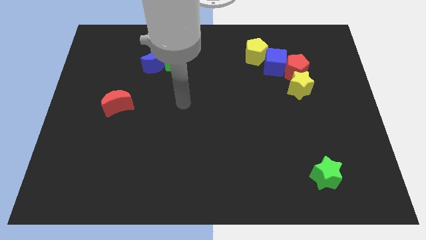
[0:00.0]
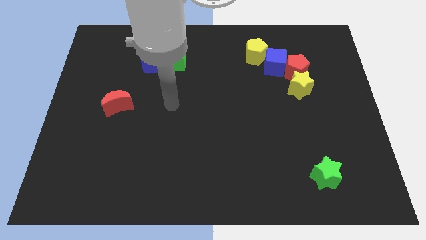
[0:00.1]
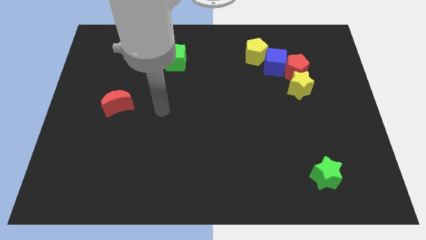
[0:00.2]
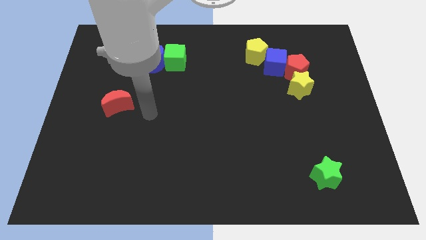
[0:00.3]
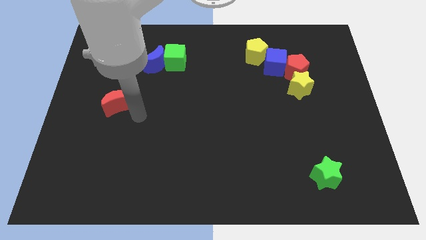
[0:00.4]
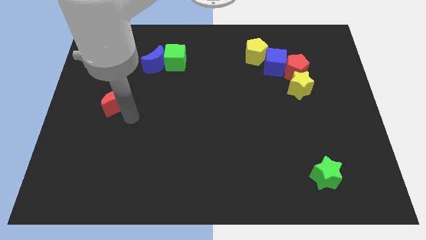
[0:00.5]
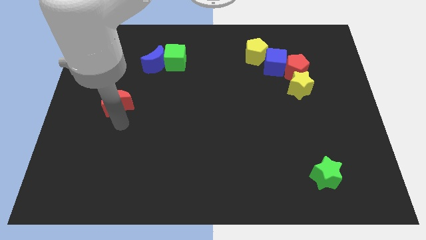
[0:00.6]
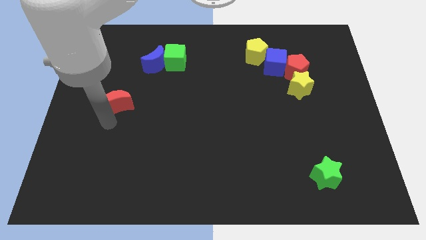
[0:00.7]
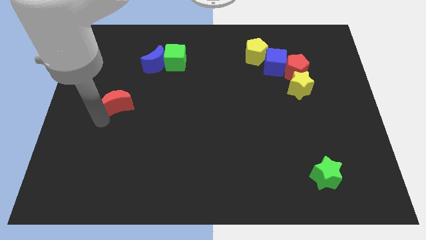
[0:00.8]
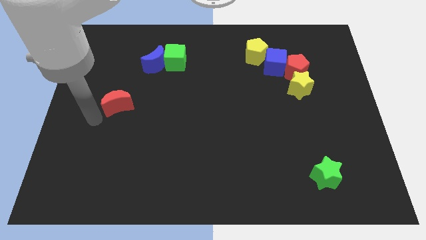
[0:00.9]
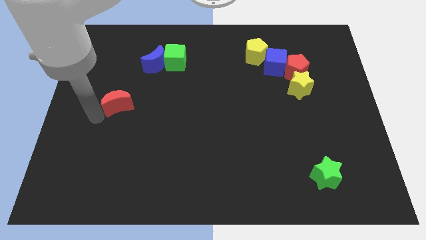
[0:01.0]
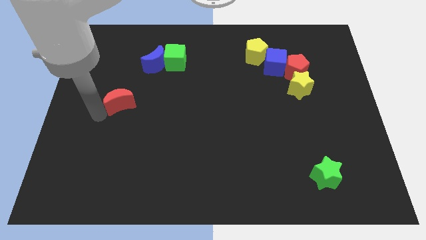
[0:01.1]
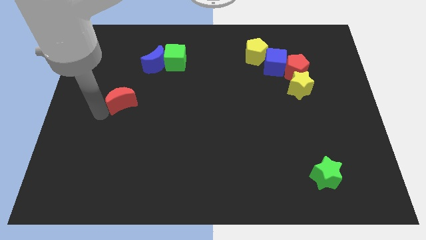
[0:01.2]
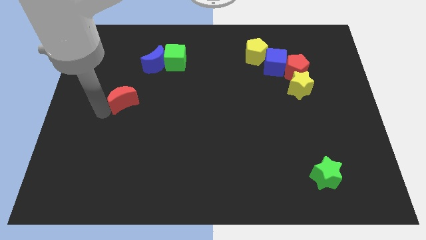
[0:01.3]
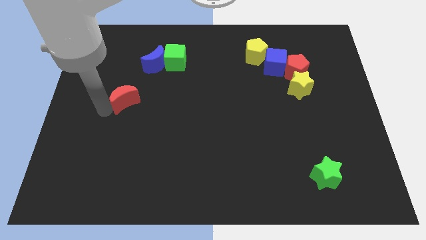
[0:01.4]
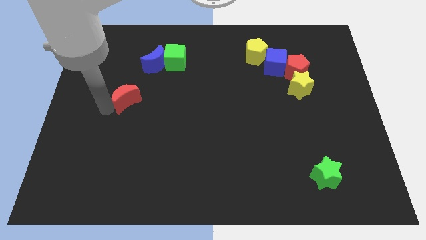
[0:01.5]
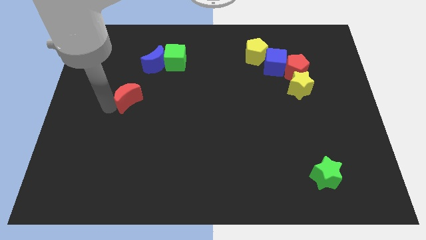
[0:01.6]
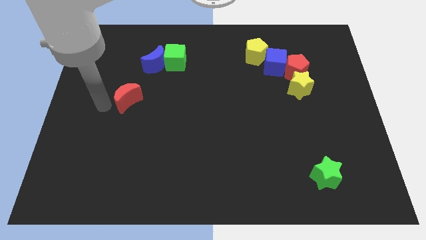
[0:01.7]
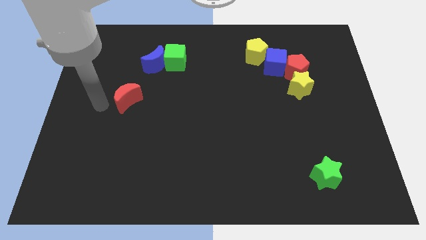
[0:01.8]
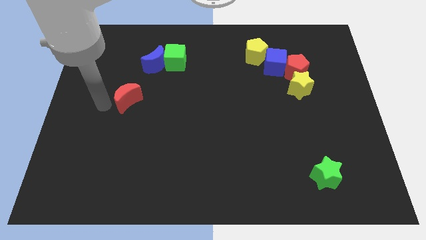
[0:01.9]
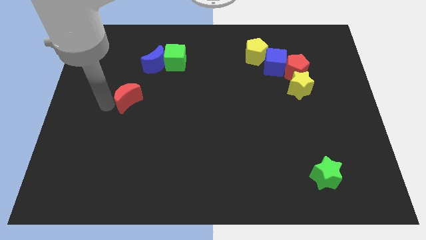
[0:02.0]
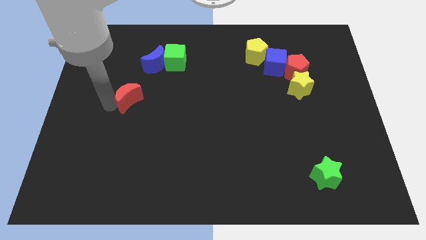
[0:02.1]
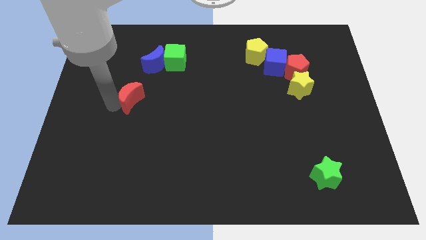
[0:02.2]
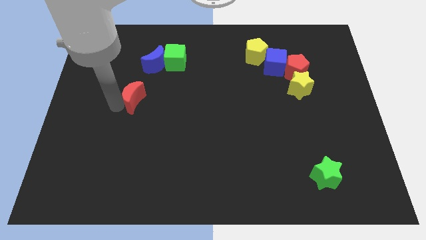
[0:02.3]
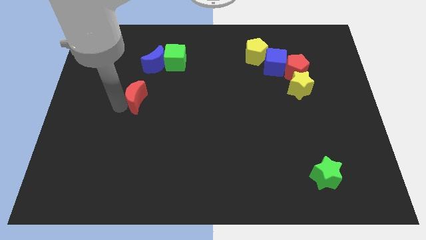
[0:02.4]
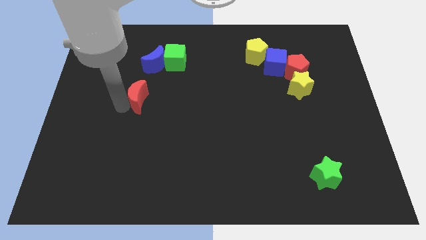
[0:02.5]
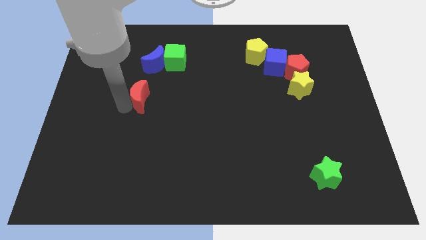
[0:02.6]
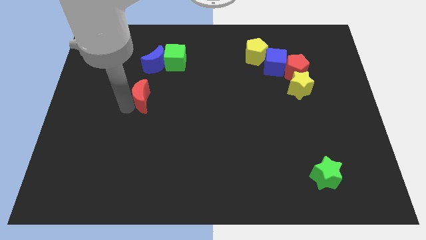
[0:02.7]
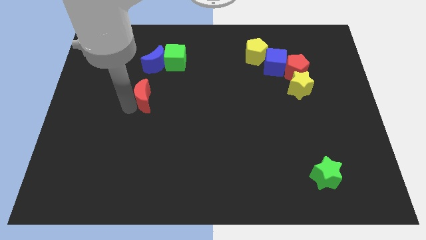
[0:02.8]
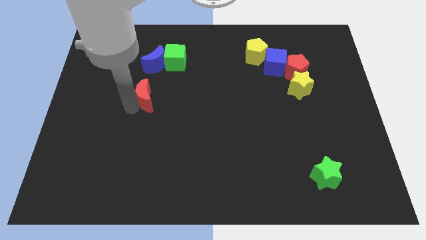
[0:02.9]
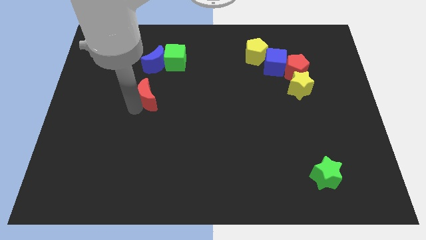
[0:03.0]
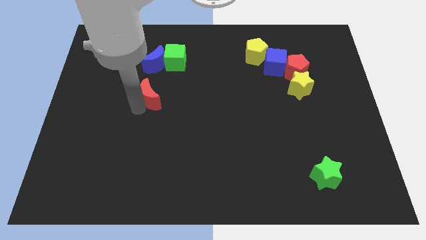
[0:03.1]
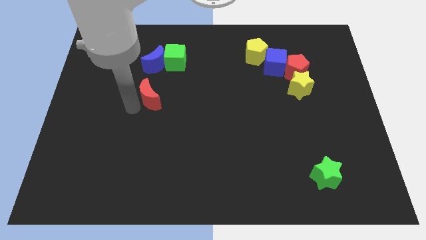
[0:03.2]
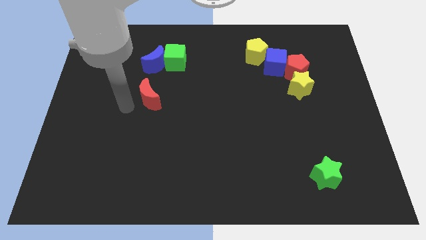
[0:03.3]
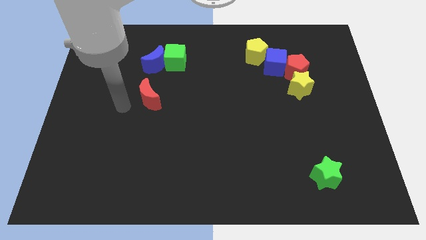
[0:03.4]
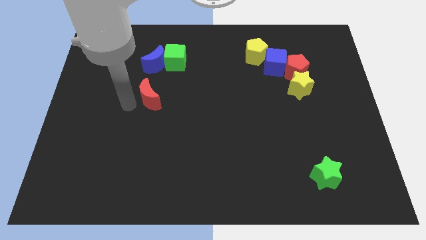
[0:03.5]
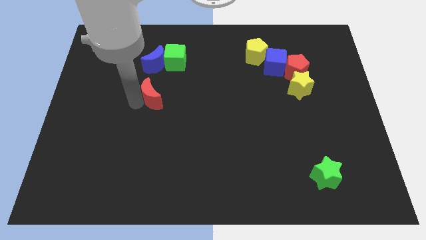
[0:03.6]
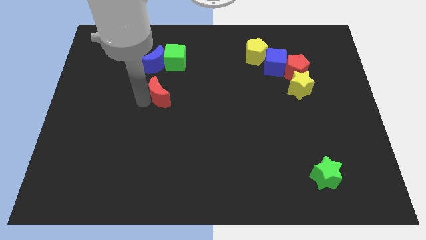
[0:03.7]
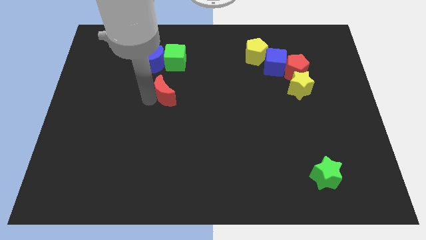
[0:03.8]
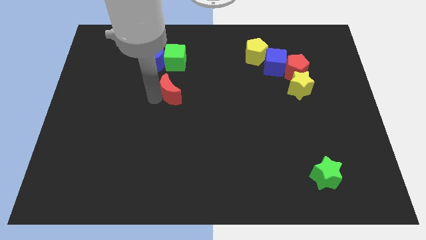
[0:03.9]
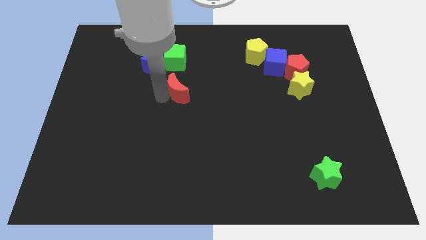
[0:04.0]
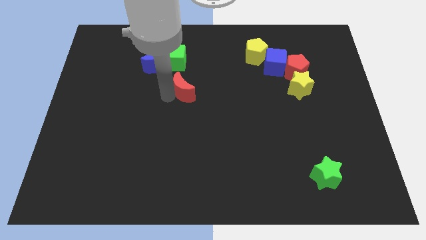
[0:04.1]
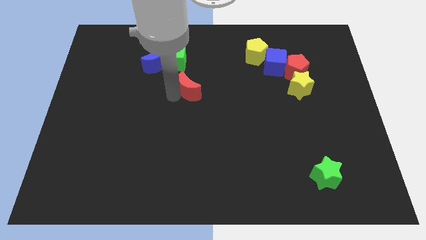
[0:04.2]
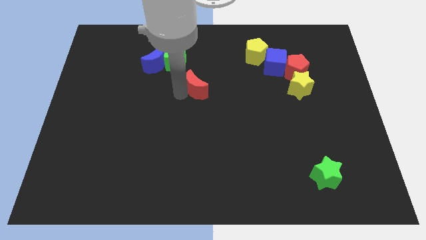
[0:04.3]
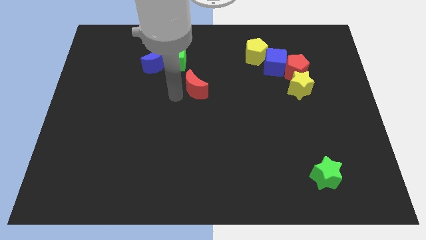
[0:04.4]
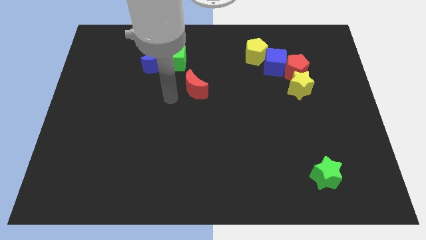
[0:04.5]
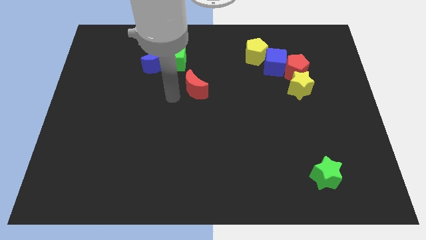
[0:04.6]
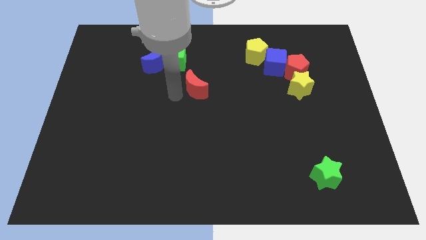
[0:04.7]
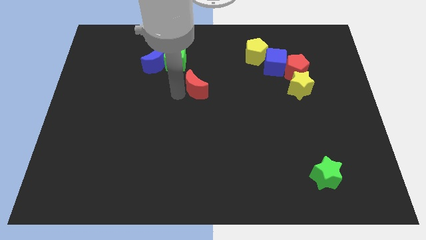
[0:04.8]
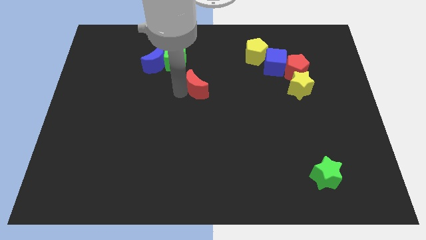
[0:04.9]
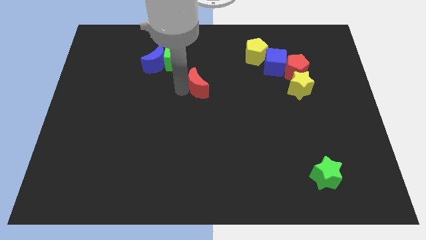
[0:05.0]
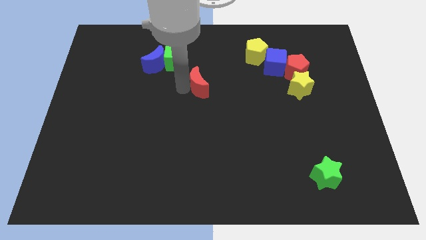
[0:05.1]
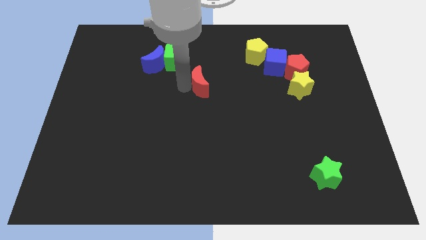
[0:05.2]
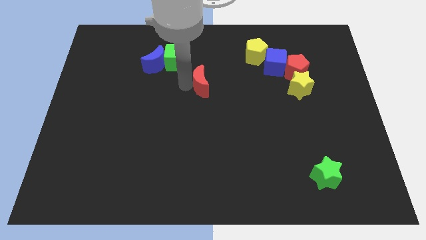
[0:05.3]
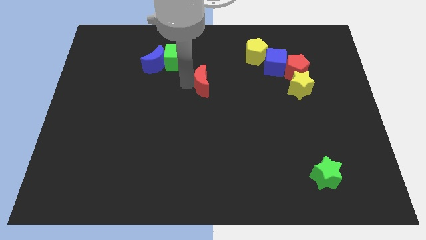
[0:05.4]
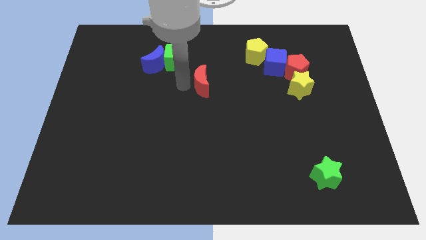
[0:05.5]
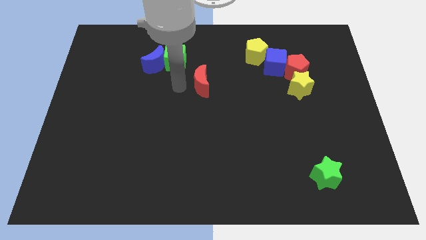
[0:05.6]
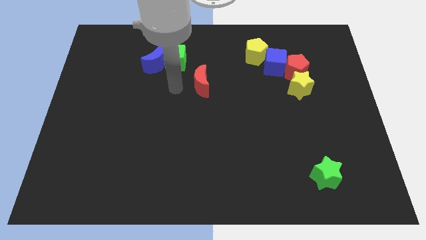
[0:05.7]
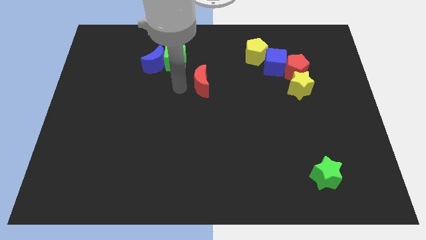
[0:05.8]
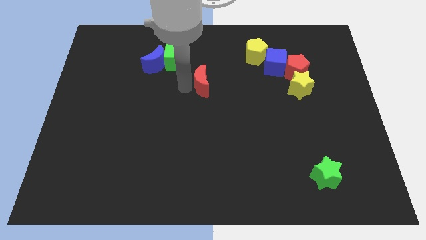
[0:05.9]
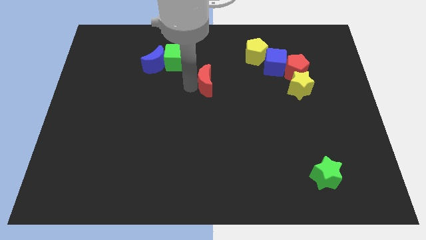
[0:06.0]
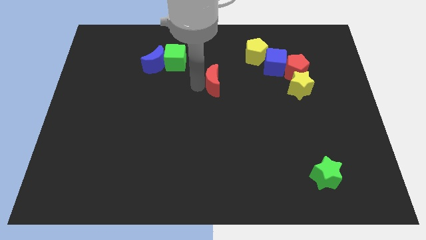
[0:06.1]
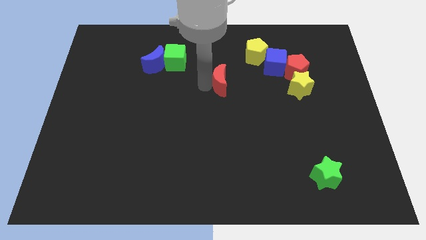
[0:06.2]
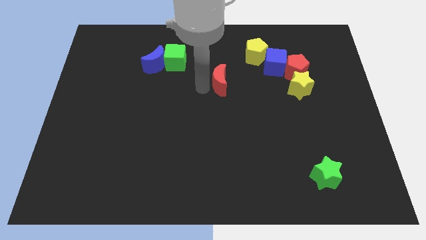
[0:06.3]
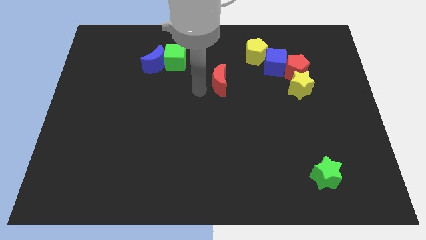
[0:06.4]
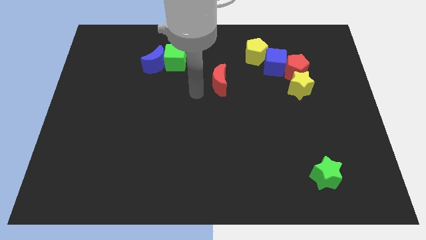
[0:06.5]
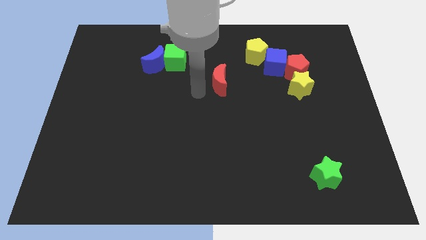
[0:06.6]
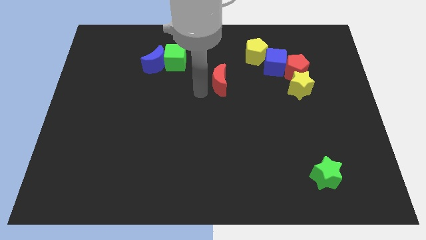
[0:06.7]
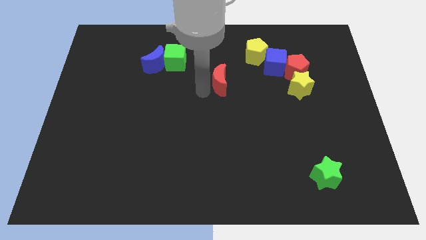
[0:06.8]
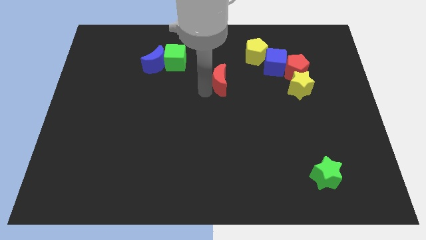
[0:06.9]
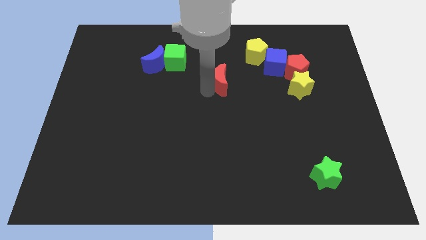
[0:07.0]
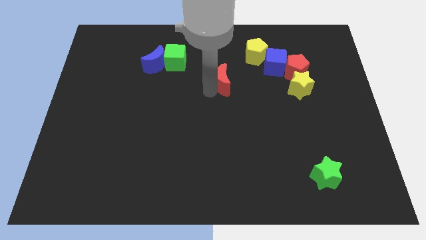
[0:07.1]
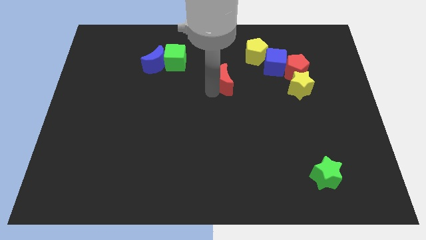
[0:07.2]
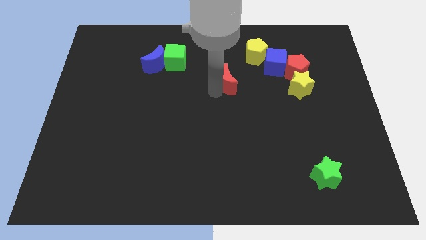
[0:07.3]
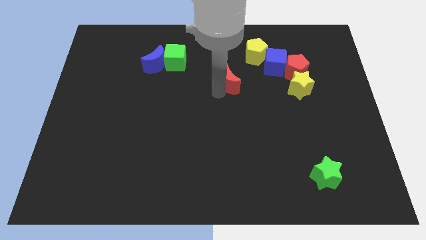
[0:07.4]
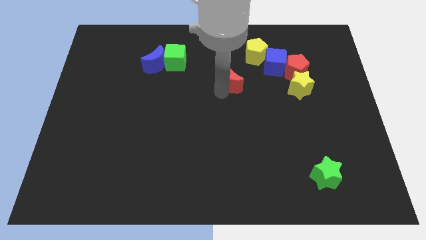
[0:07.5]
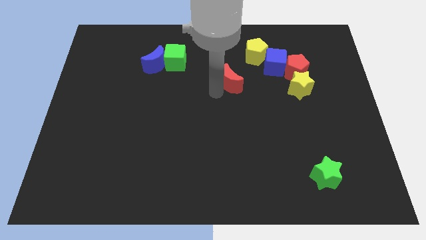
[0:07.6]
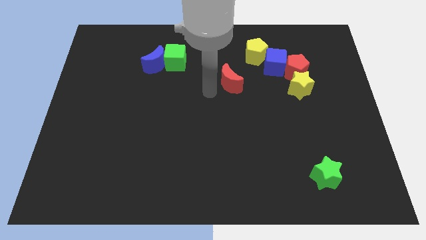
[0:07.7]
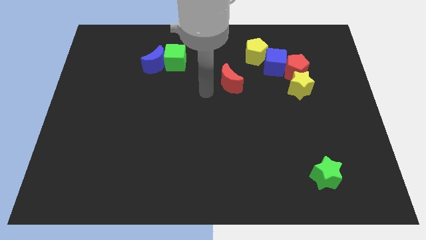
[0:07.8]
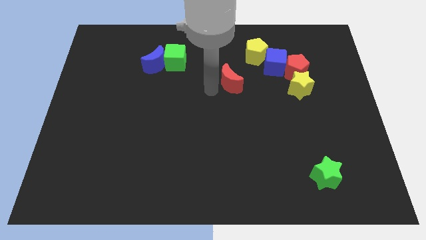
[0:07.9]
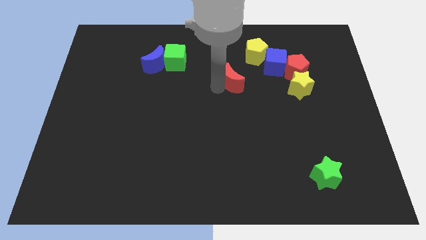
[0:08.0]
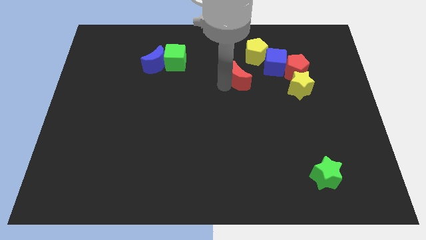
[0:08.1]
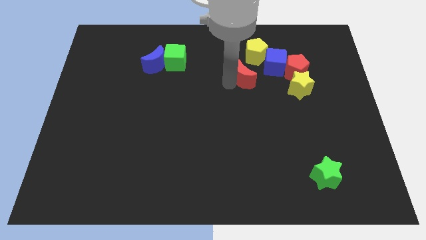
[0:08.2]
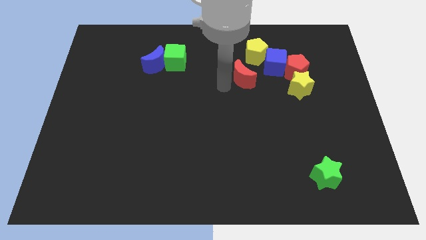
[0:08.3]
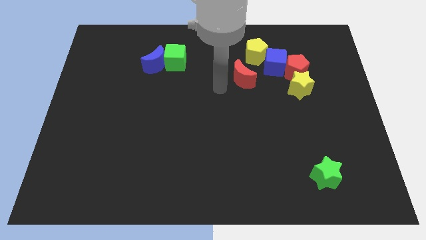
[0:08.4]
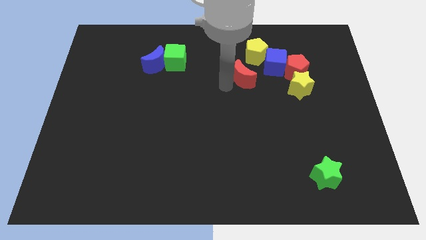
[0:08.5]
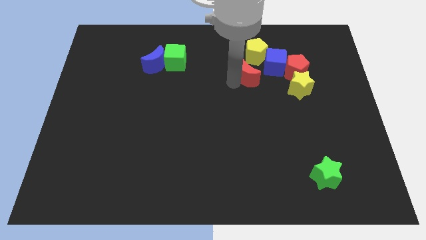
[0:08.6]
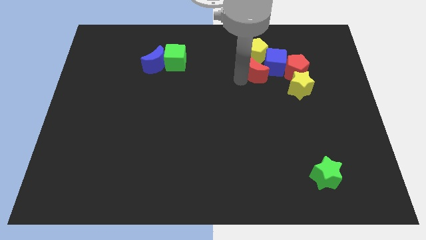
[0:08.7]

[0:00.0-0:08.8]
move the red moon to the blue cube
